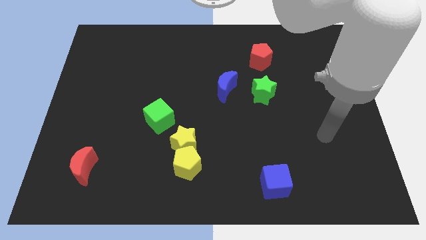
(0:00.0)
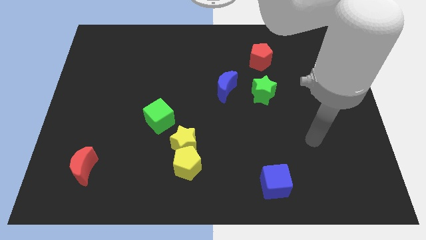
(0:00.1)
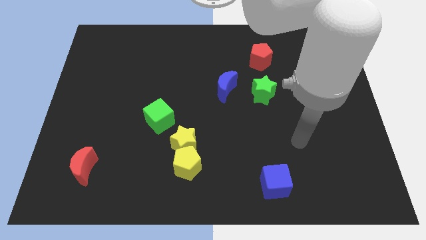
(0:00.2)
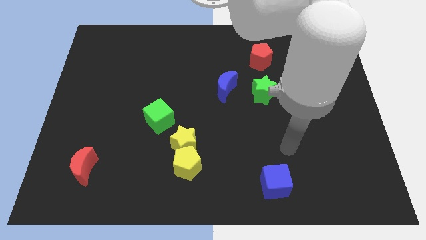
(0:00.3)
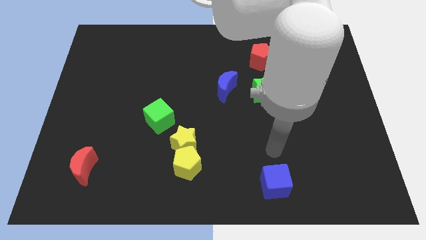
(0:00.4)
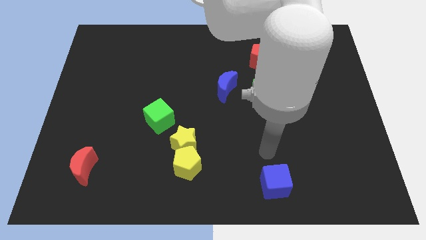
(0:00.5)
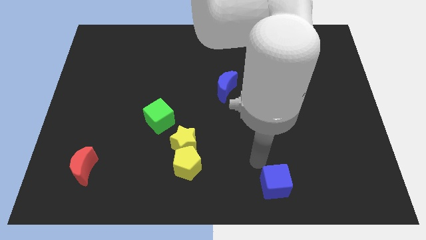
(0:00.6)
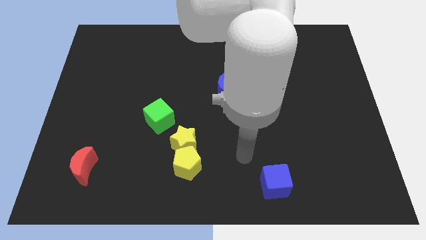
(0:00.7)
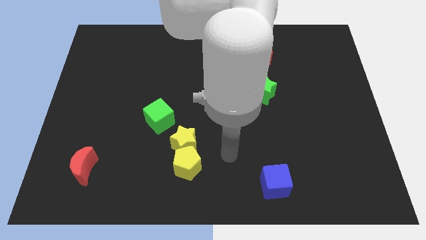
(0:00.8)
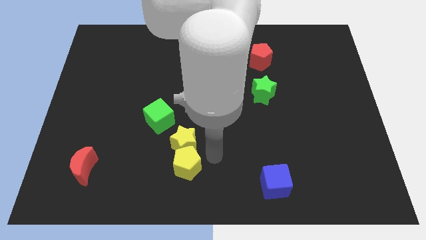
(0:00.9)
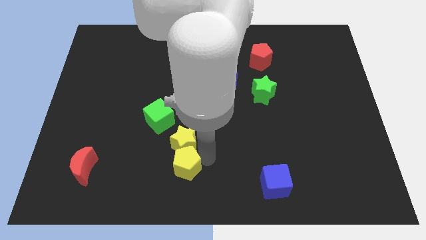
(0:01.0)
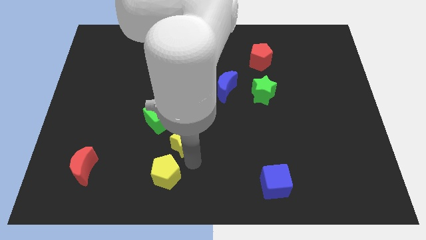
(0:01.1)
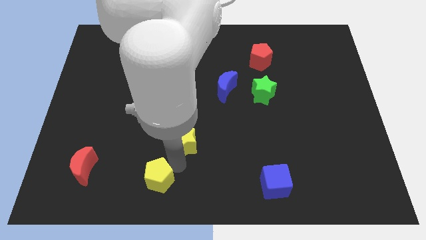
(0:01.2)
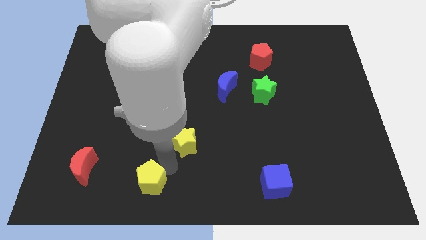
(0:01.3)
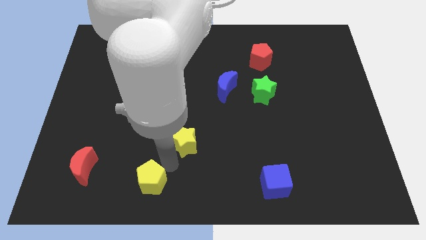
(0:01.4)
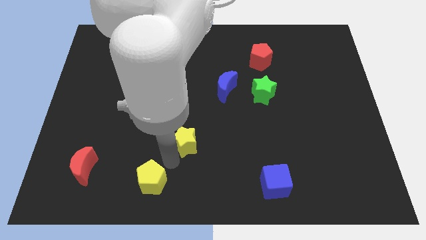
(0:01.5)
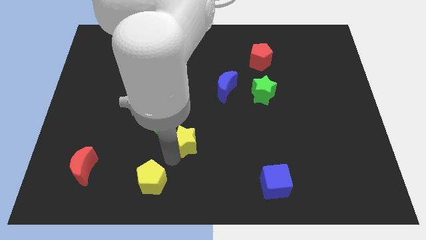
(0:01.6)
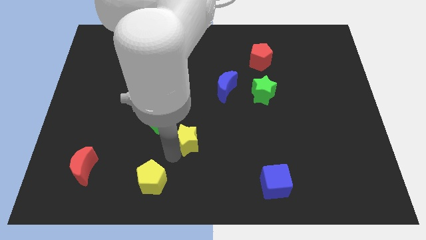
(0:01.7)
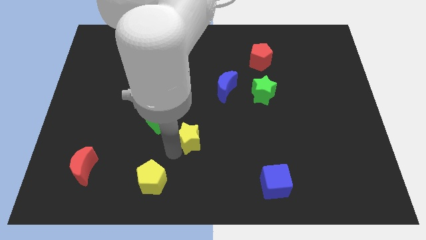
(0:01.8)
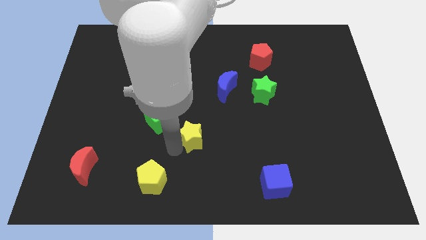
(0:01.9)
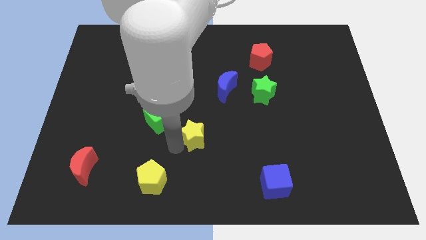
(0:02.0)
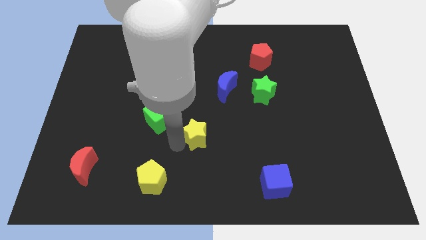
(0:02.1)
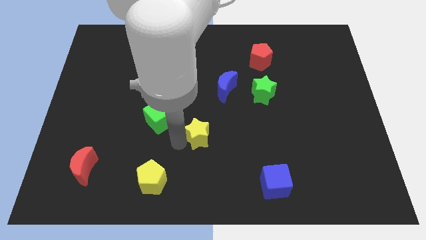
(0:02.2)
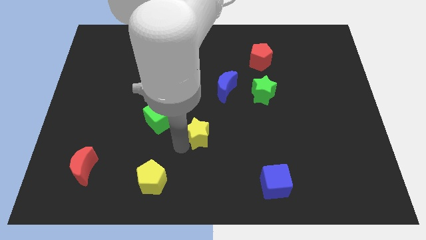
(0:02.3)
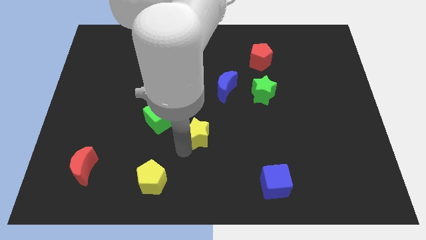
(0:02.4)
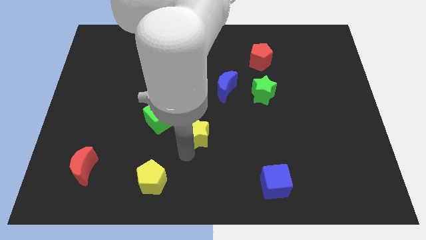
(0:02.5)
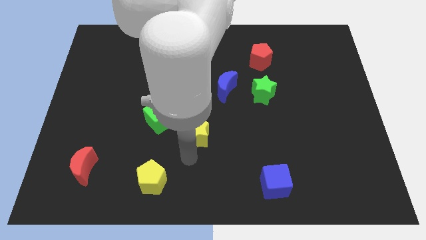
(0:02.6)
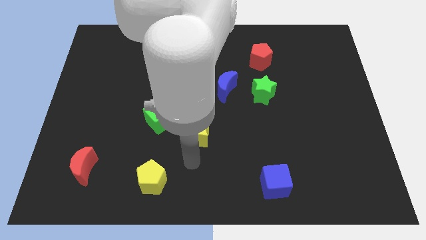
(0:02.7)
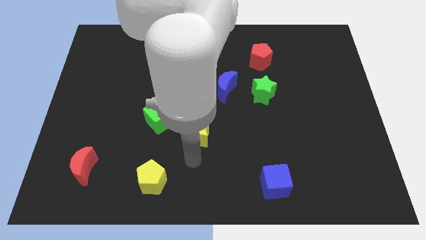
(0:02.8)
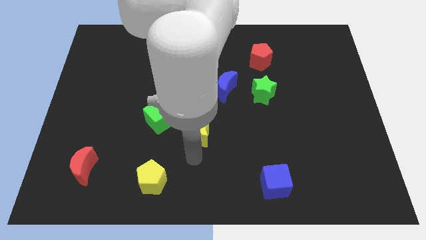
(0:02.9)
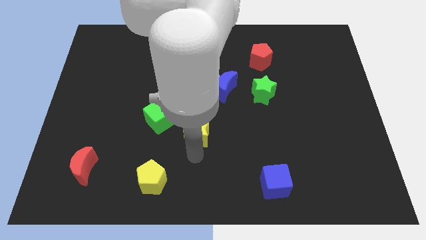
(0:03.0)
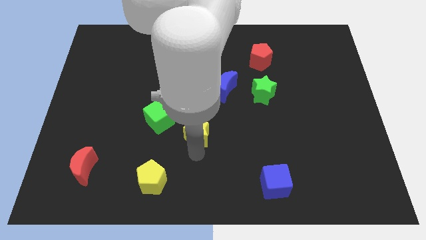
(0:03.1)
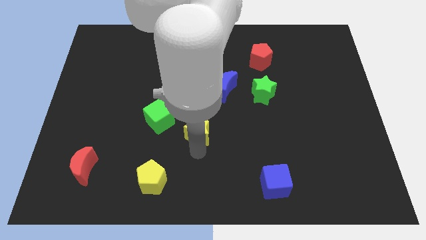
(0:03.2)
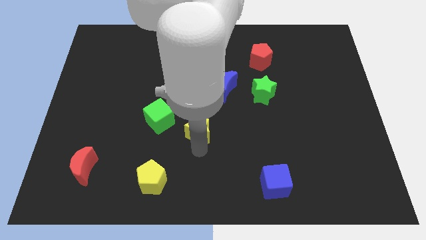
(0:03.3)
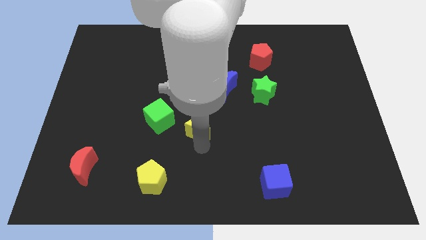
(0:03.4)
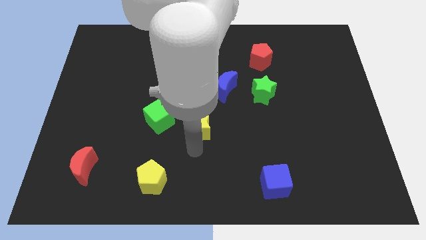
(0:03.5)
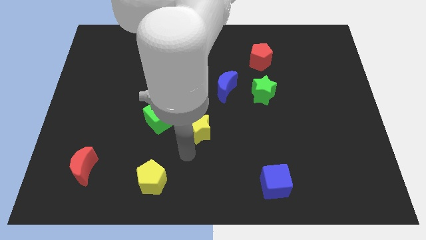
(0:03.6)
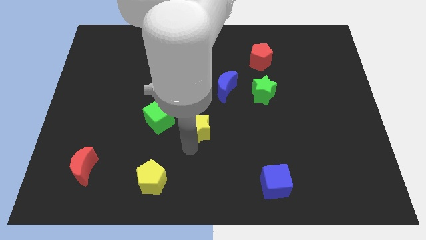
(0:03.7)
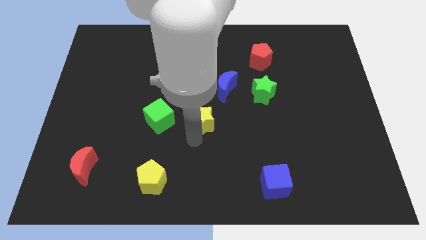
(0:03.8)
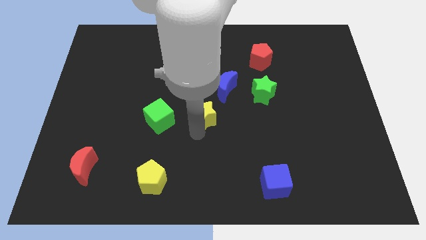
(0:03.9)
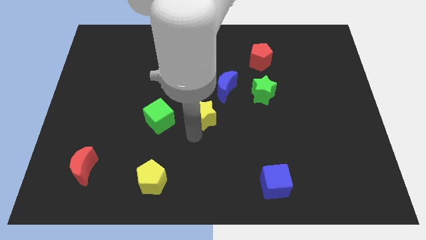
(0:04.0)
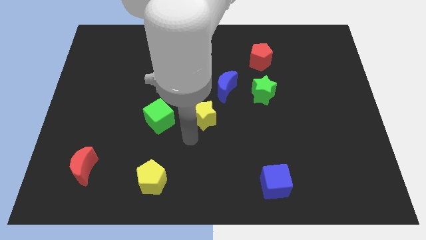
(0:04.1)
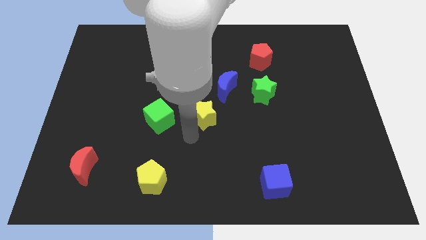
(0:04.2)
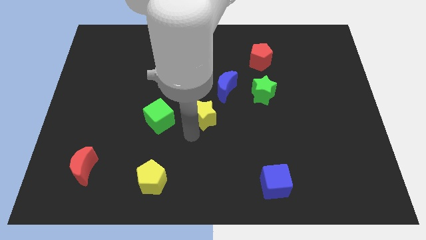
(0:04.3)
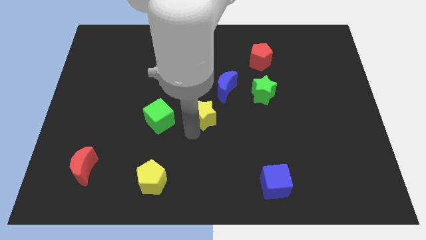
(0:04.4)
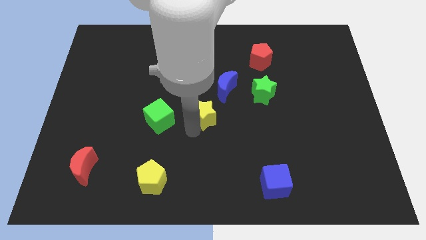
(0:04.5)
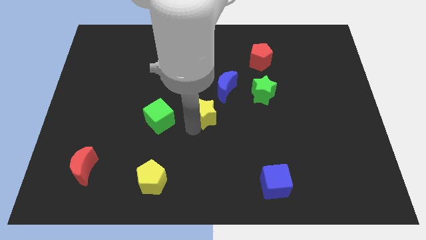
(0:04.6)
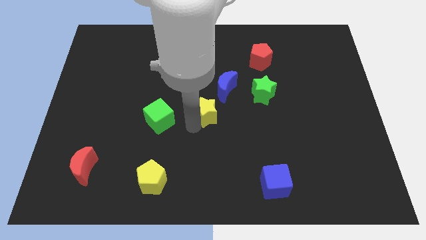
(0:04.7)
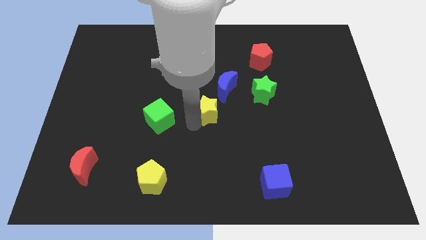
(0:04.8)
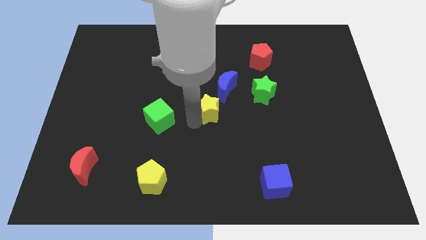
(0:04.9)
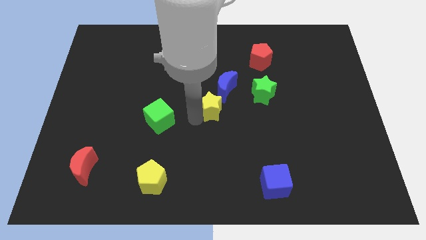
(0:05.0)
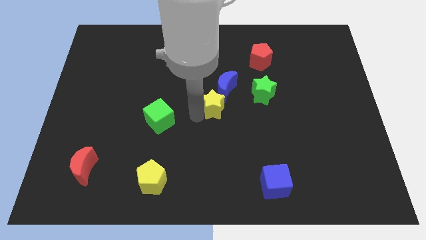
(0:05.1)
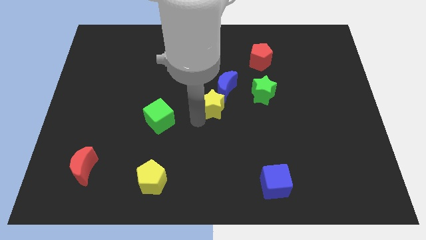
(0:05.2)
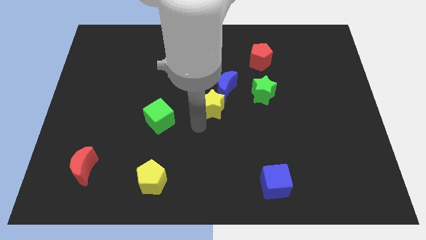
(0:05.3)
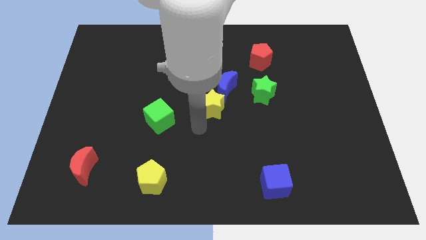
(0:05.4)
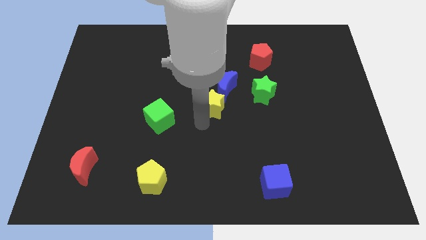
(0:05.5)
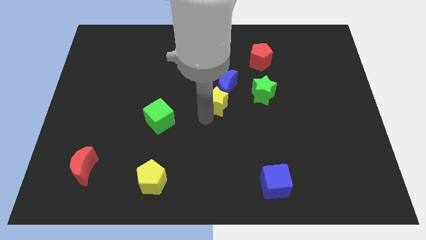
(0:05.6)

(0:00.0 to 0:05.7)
put the yellow star next to the blue moon

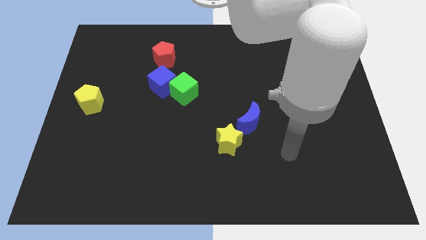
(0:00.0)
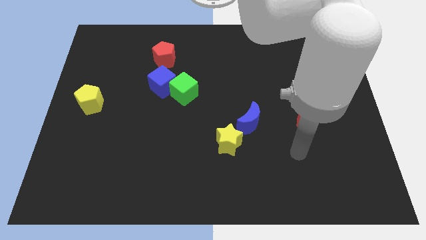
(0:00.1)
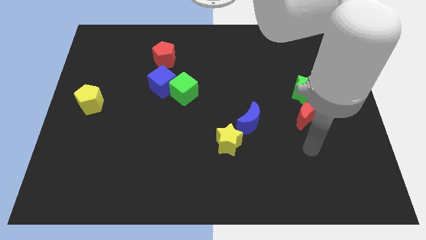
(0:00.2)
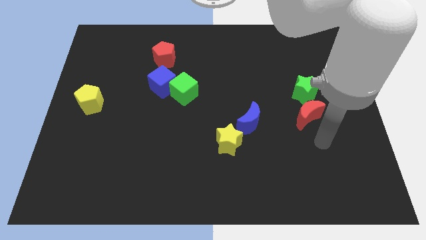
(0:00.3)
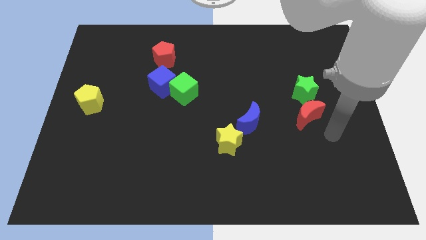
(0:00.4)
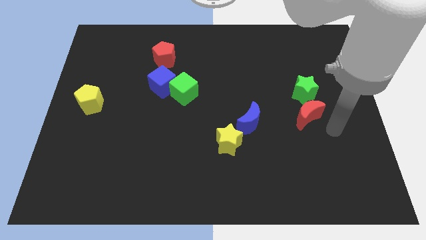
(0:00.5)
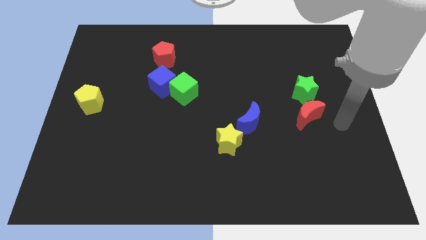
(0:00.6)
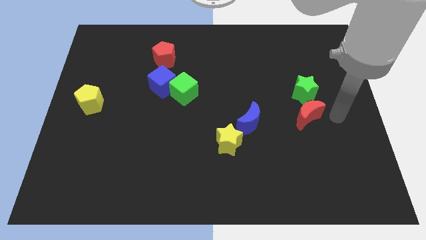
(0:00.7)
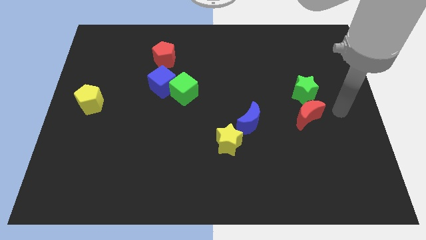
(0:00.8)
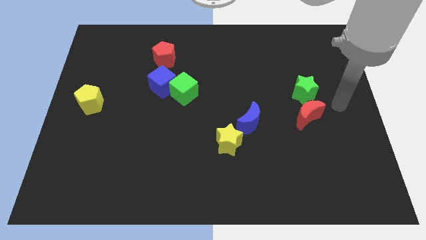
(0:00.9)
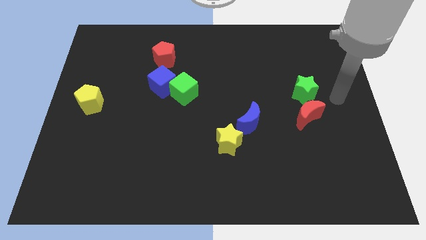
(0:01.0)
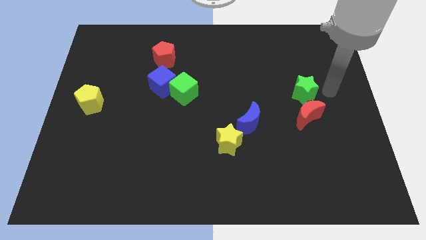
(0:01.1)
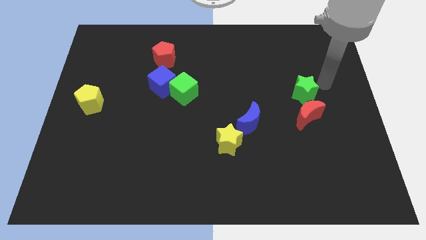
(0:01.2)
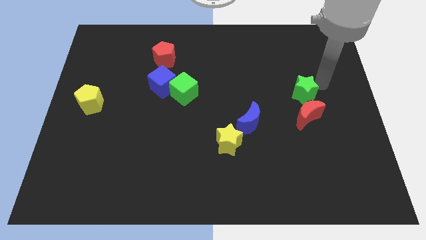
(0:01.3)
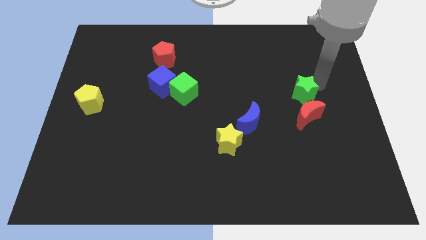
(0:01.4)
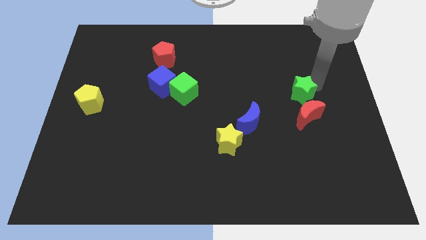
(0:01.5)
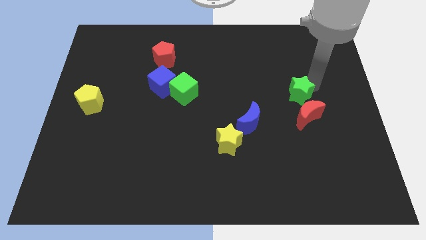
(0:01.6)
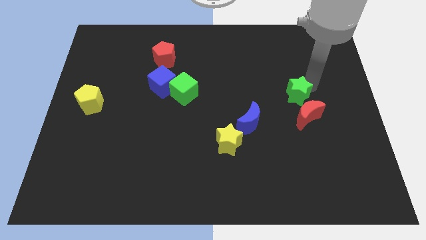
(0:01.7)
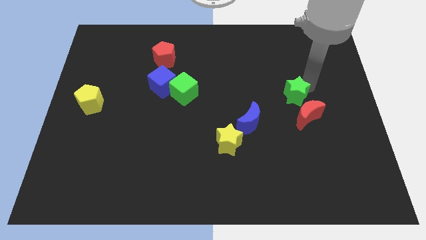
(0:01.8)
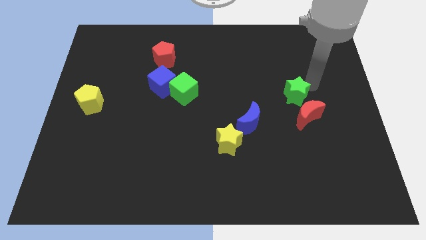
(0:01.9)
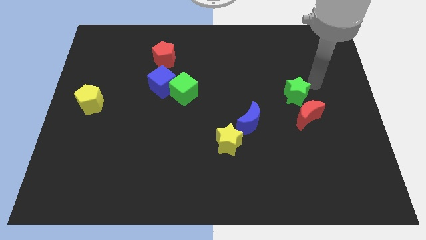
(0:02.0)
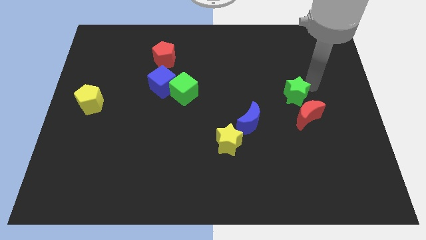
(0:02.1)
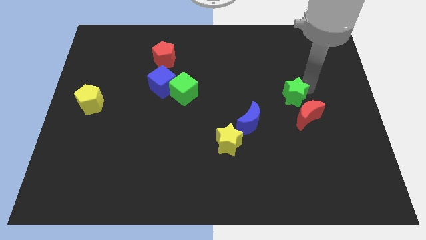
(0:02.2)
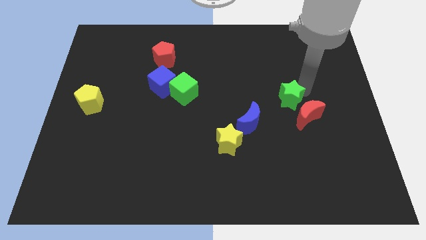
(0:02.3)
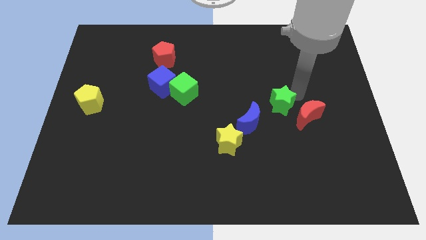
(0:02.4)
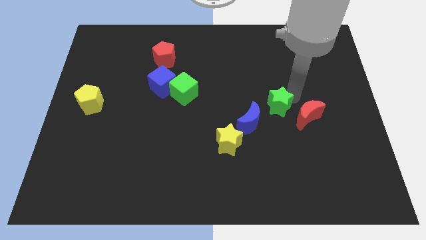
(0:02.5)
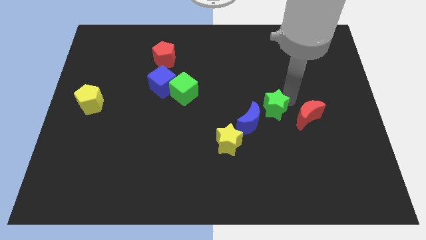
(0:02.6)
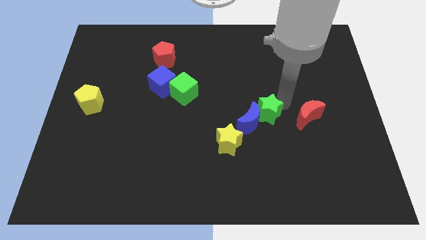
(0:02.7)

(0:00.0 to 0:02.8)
put the green star to the blue moon
